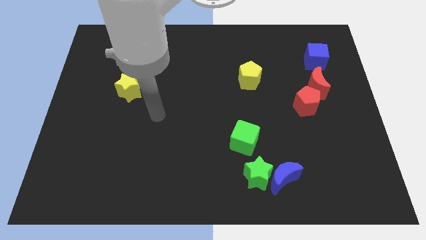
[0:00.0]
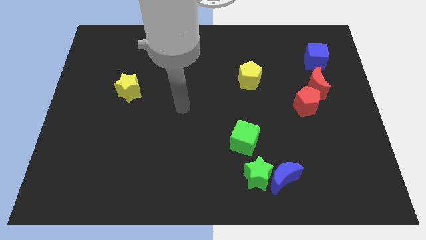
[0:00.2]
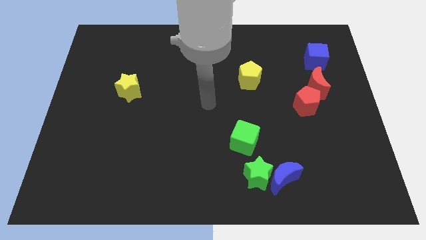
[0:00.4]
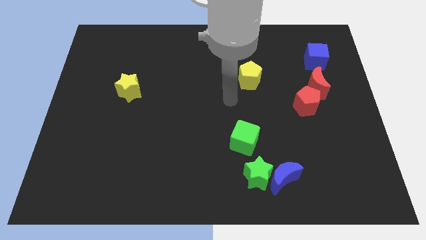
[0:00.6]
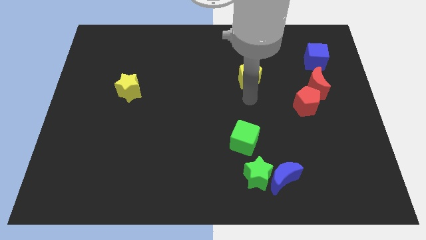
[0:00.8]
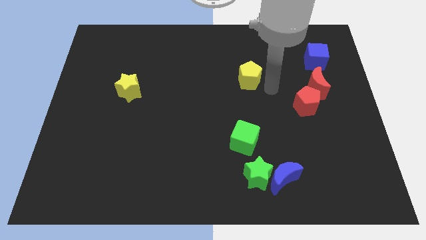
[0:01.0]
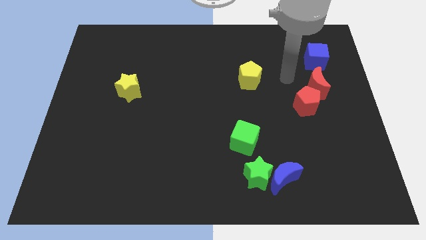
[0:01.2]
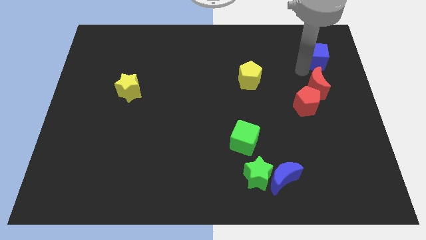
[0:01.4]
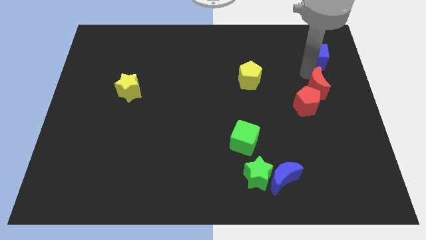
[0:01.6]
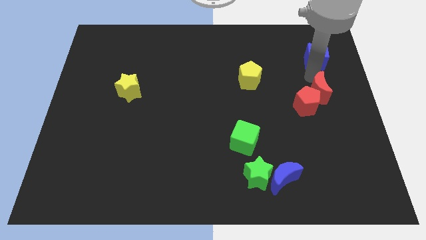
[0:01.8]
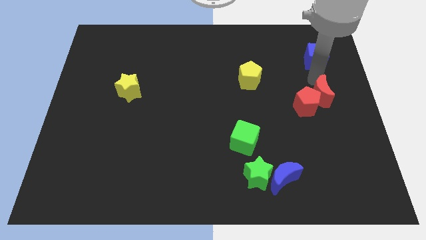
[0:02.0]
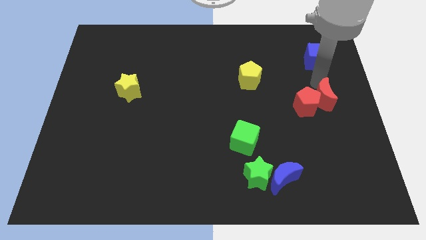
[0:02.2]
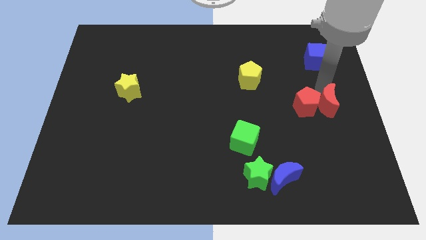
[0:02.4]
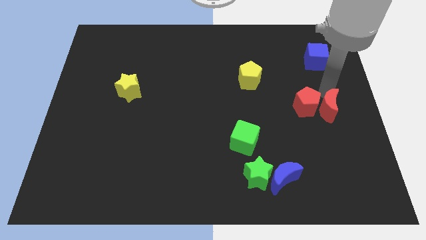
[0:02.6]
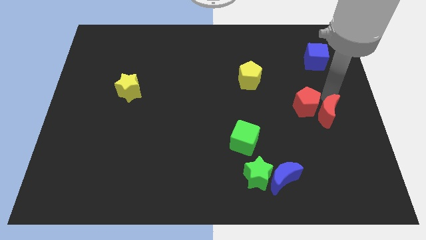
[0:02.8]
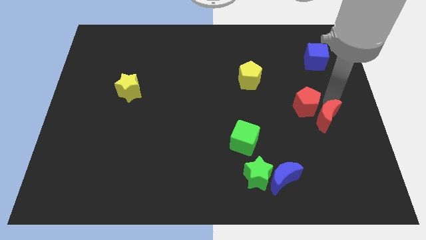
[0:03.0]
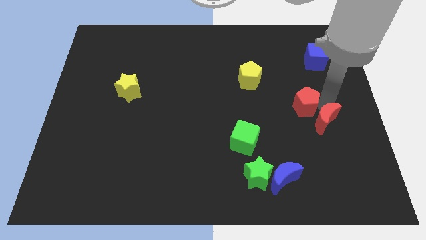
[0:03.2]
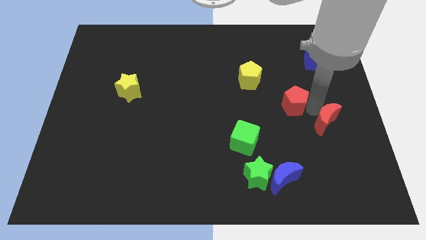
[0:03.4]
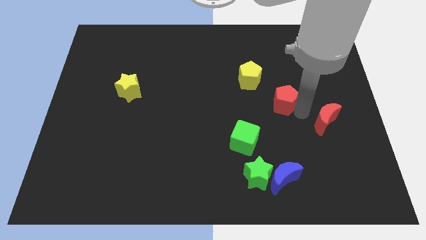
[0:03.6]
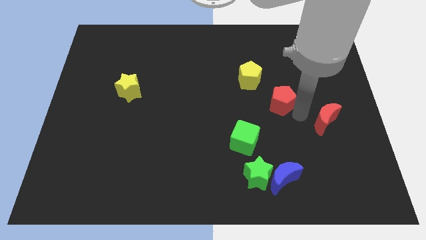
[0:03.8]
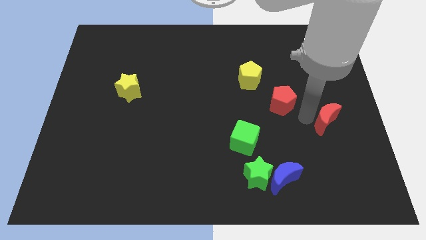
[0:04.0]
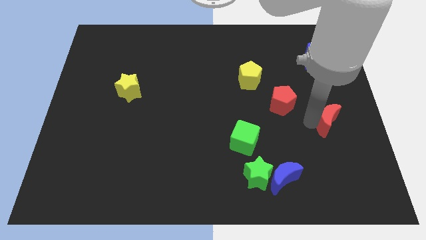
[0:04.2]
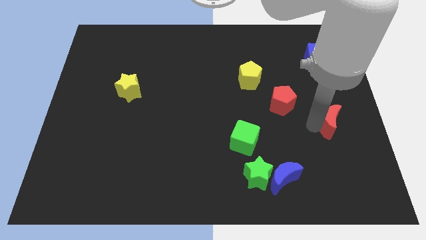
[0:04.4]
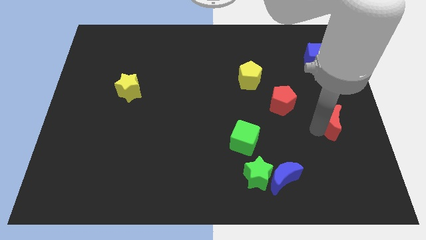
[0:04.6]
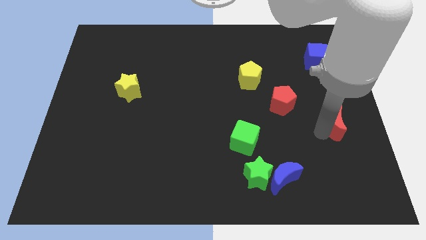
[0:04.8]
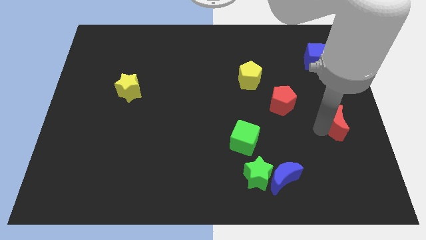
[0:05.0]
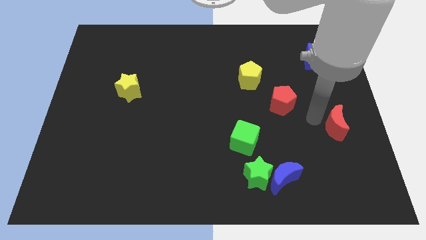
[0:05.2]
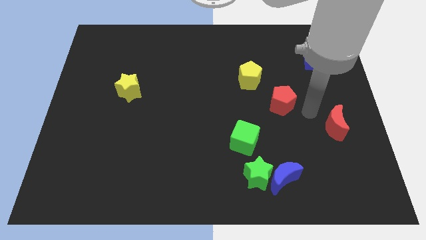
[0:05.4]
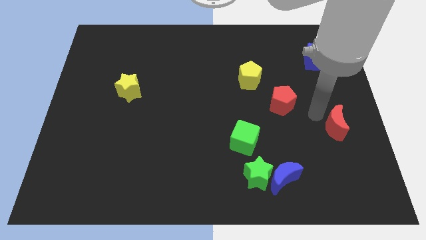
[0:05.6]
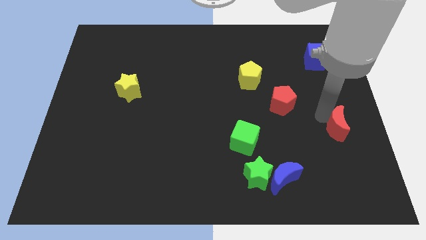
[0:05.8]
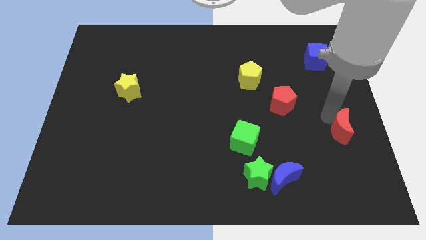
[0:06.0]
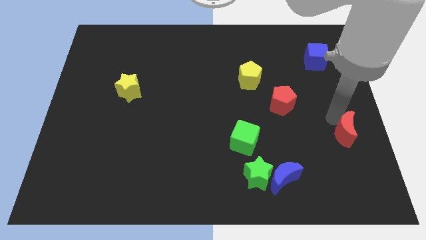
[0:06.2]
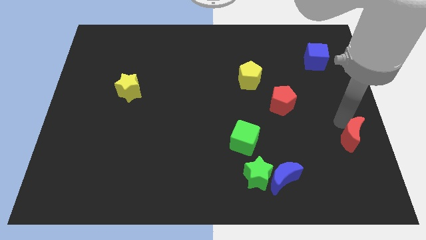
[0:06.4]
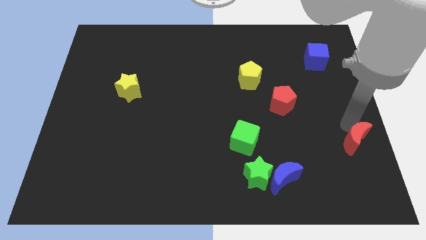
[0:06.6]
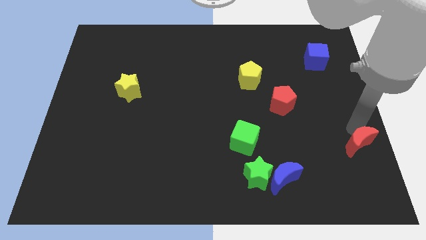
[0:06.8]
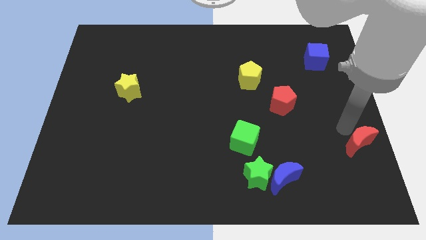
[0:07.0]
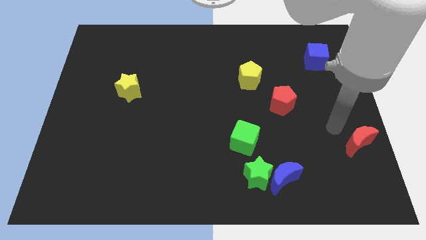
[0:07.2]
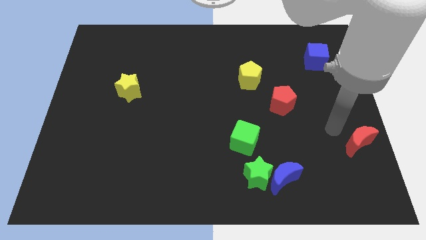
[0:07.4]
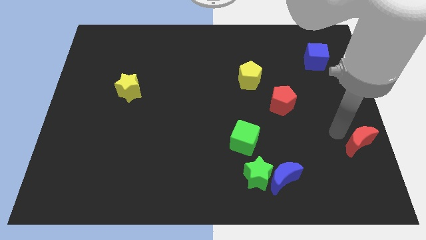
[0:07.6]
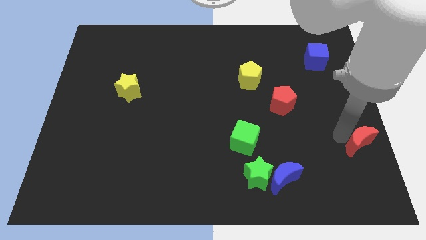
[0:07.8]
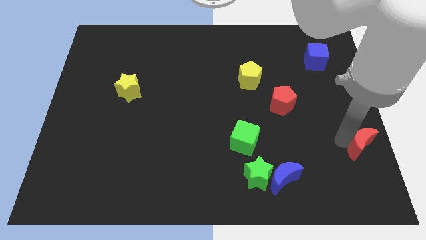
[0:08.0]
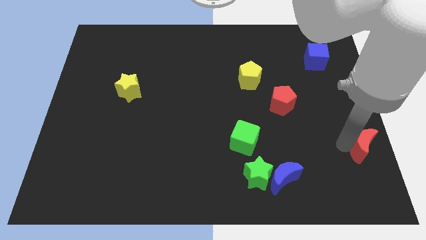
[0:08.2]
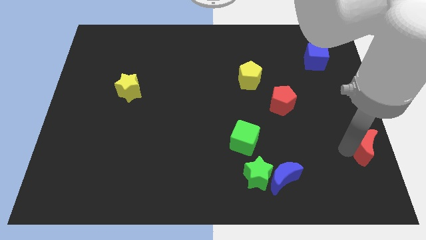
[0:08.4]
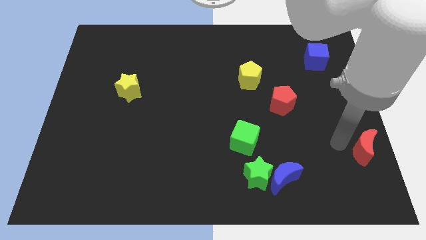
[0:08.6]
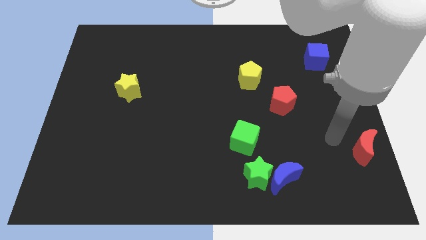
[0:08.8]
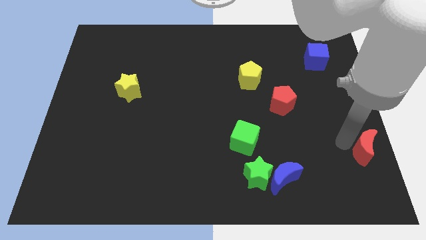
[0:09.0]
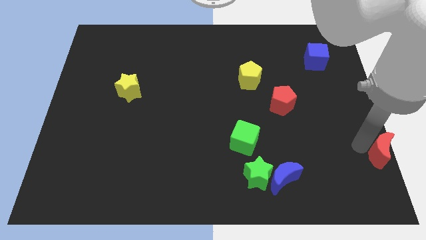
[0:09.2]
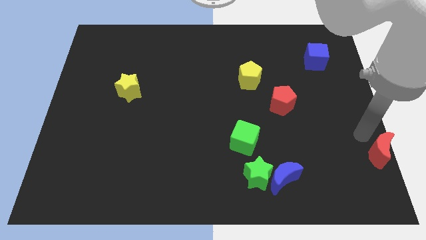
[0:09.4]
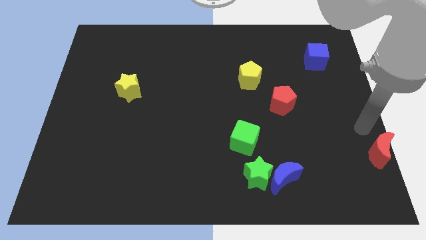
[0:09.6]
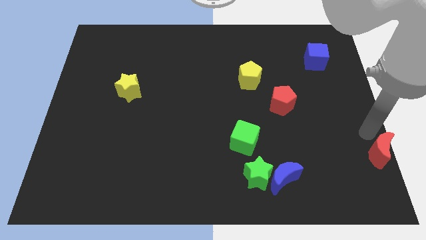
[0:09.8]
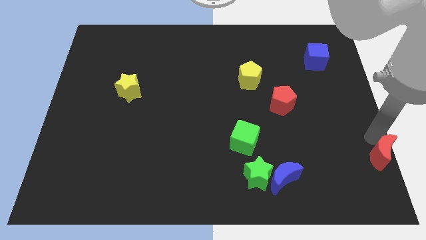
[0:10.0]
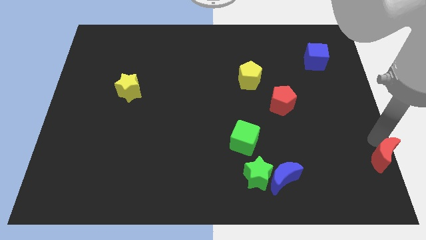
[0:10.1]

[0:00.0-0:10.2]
push the red moon to the bottom right of the board

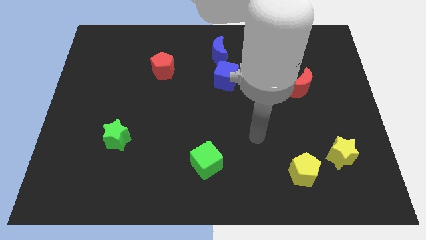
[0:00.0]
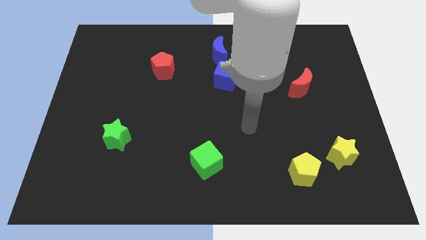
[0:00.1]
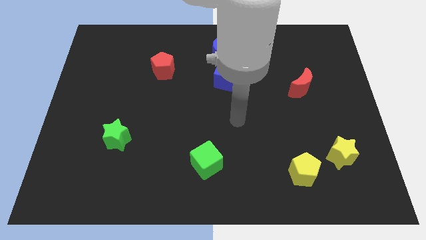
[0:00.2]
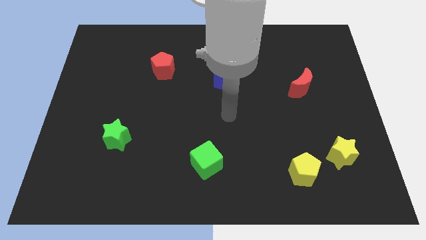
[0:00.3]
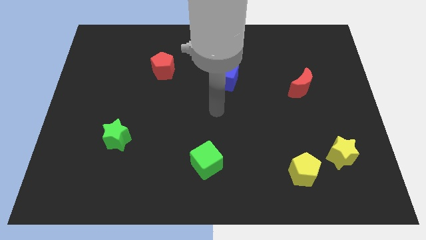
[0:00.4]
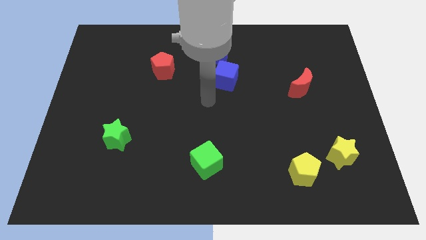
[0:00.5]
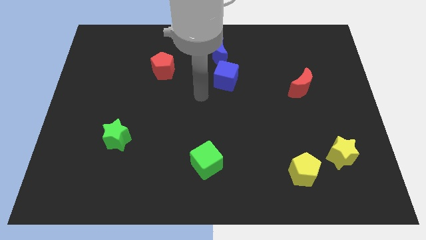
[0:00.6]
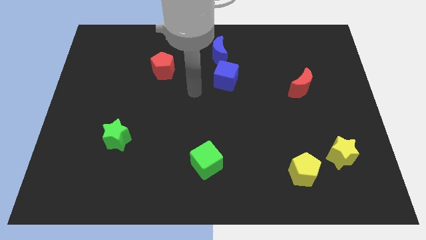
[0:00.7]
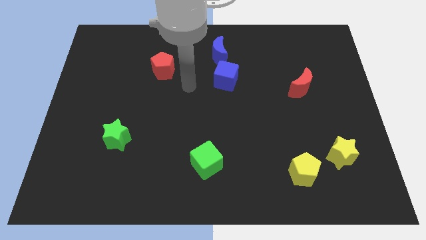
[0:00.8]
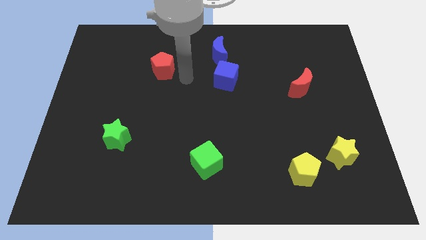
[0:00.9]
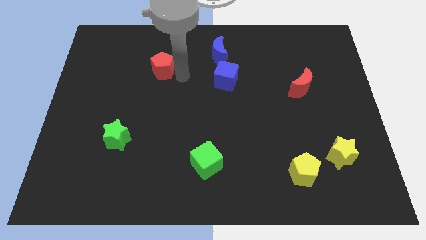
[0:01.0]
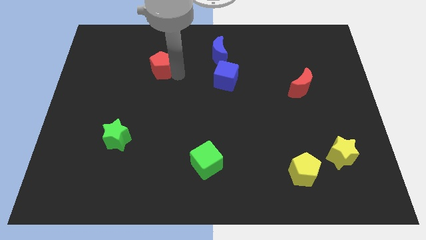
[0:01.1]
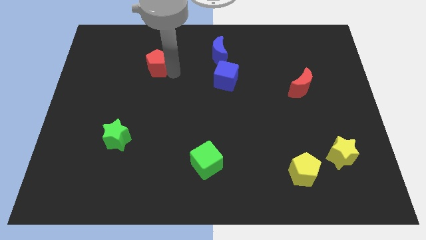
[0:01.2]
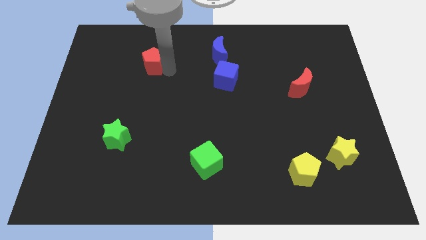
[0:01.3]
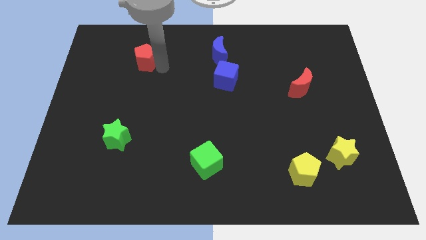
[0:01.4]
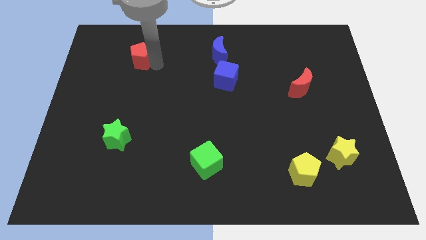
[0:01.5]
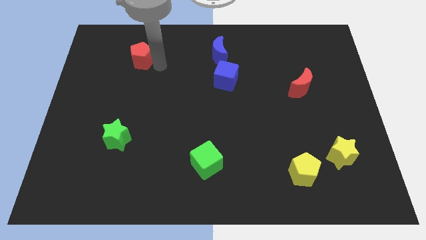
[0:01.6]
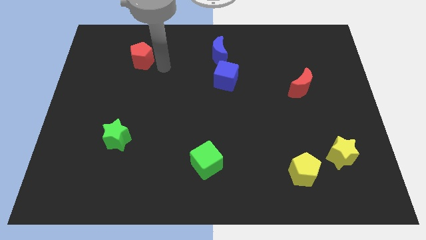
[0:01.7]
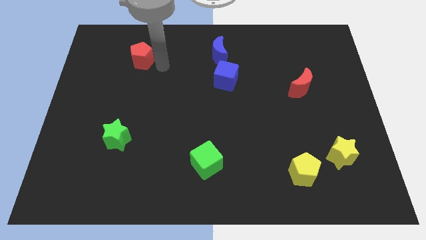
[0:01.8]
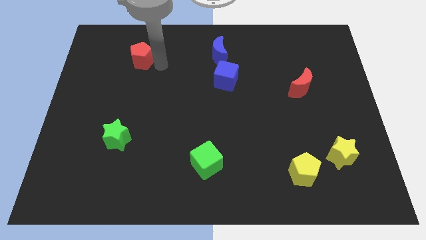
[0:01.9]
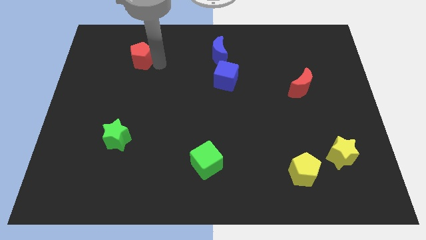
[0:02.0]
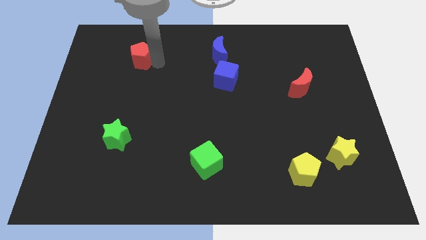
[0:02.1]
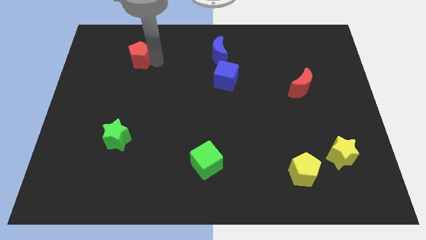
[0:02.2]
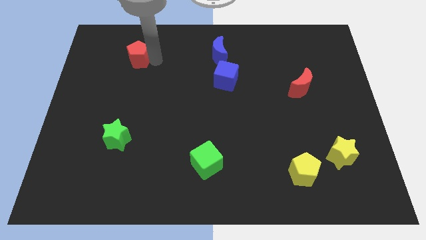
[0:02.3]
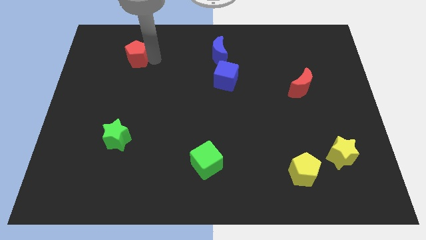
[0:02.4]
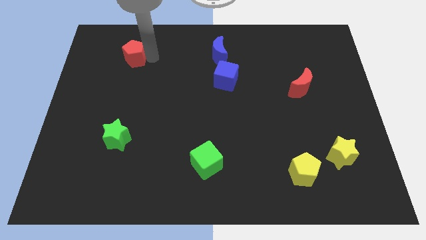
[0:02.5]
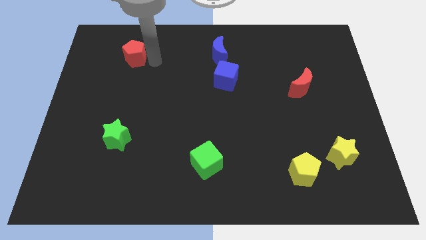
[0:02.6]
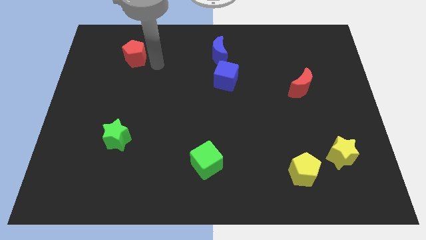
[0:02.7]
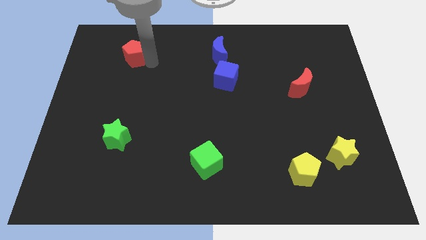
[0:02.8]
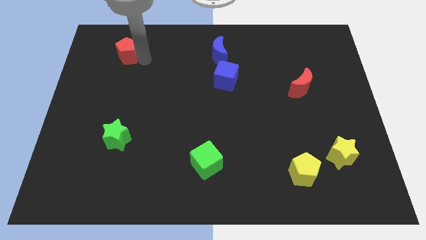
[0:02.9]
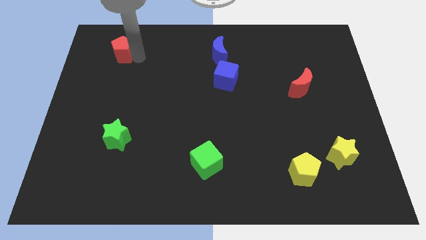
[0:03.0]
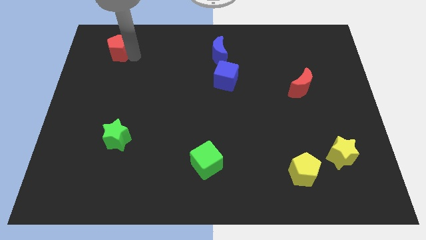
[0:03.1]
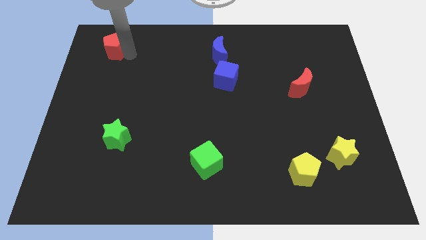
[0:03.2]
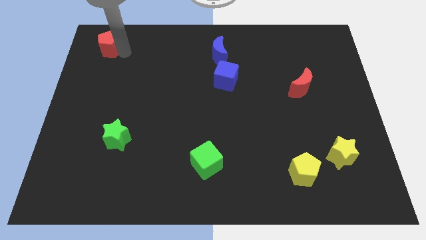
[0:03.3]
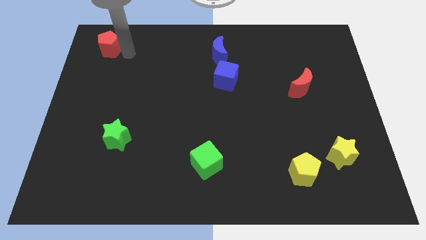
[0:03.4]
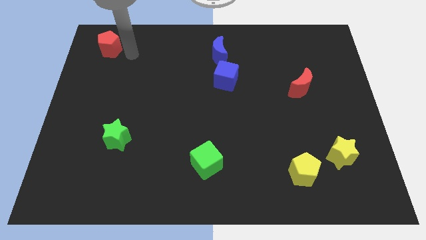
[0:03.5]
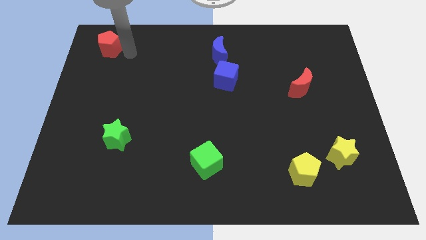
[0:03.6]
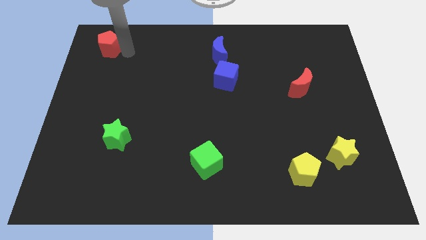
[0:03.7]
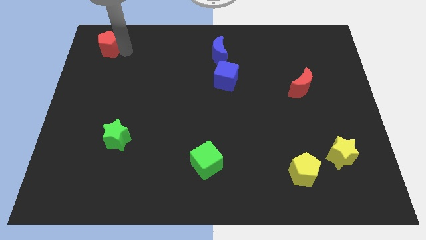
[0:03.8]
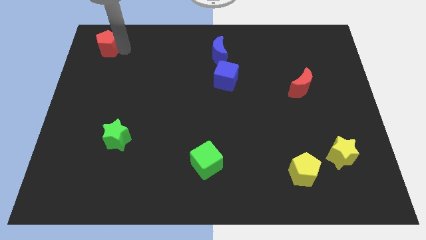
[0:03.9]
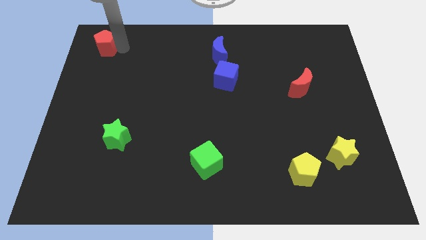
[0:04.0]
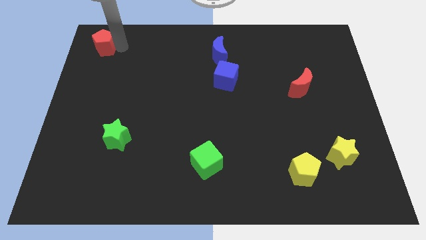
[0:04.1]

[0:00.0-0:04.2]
put the red pentagon to the upper left corner
